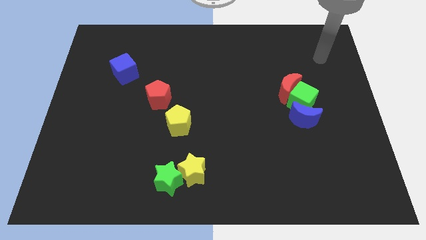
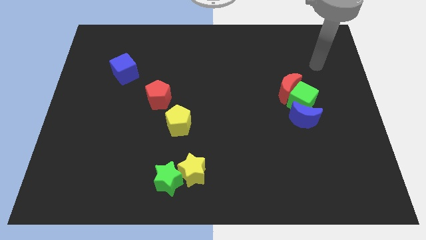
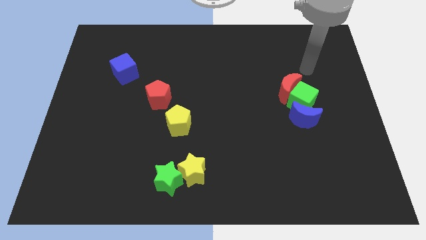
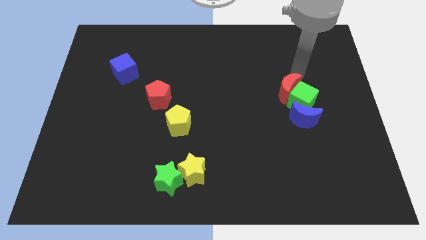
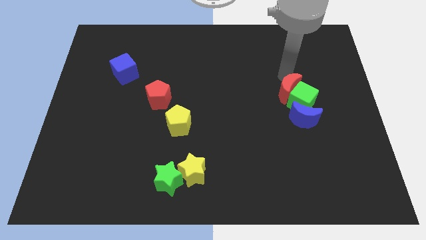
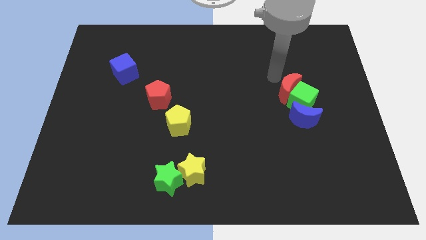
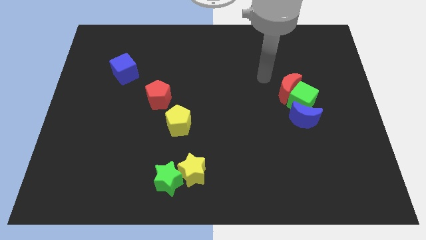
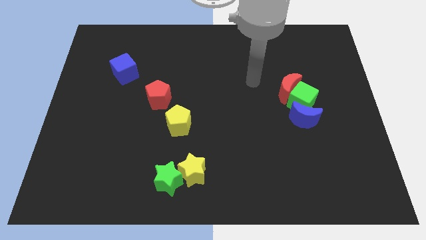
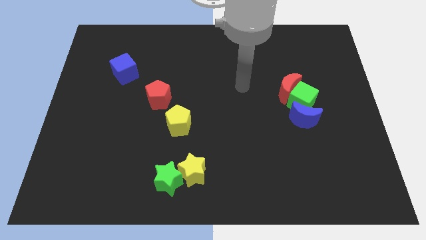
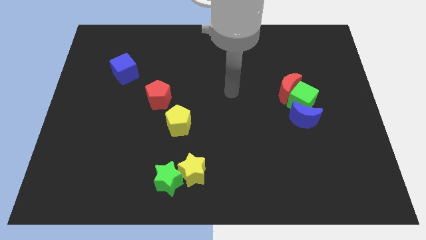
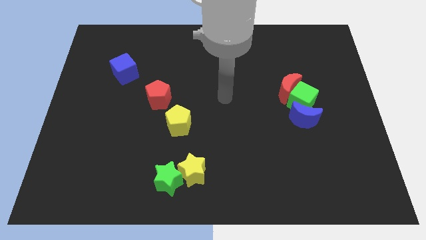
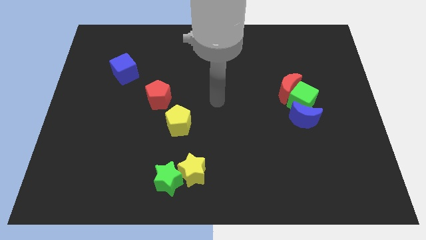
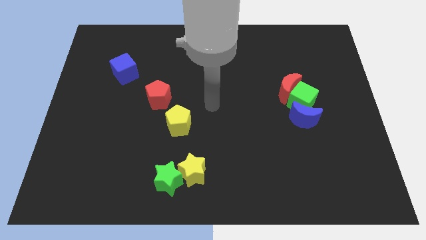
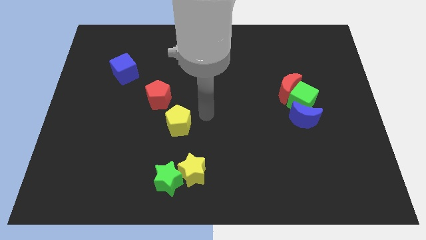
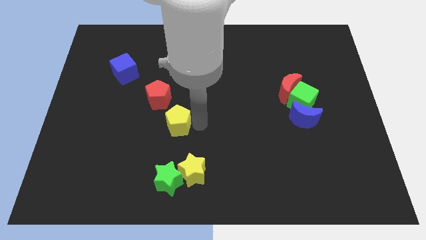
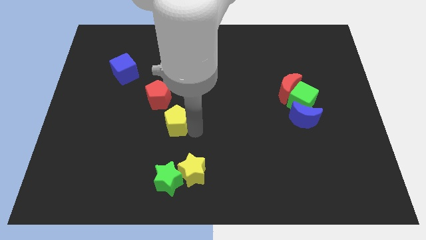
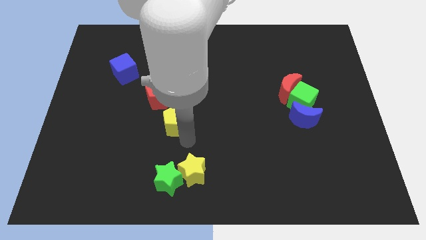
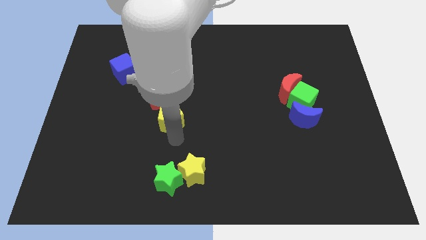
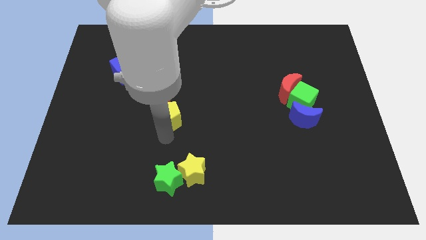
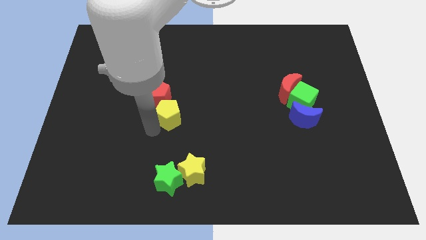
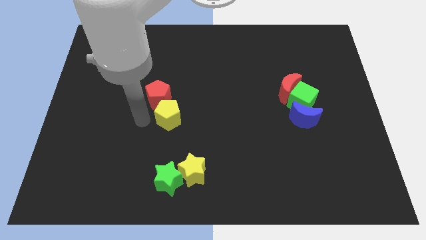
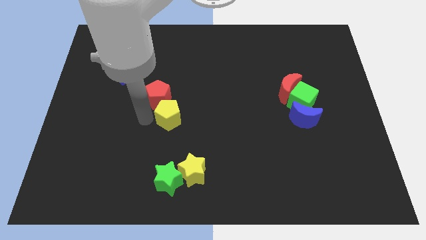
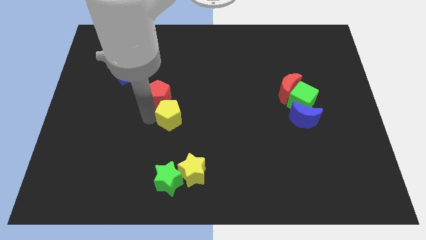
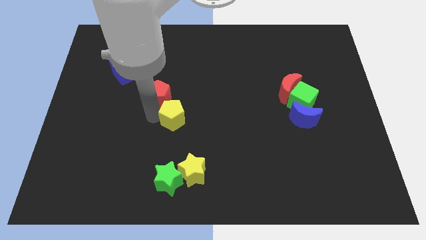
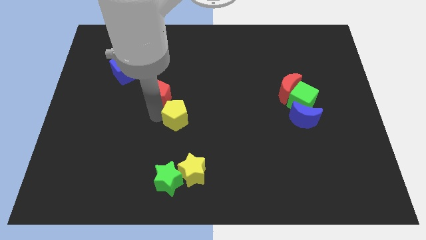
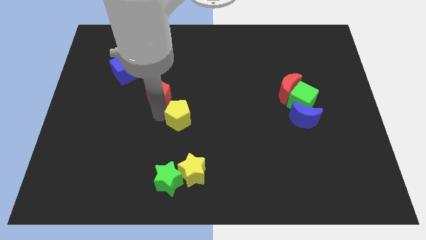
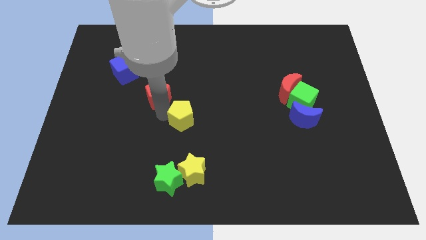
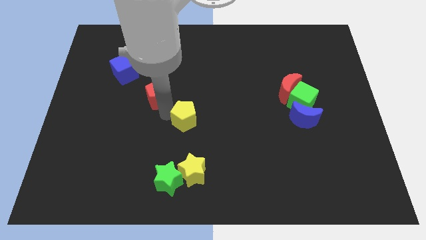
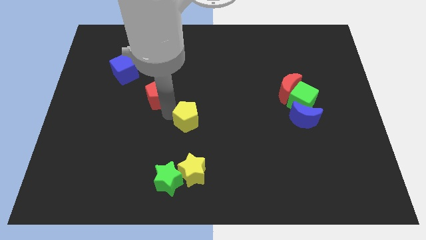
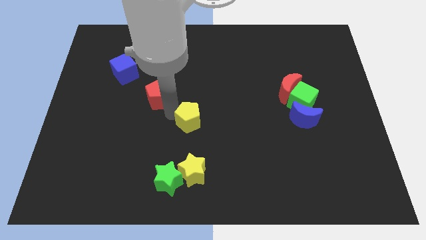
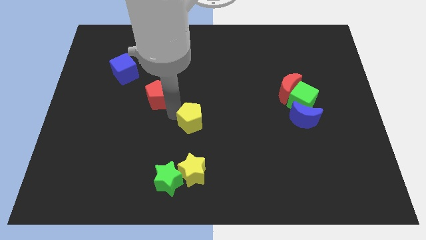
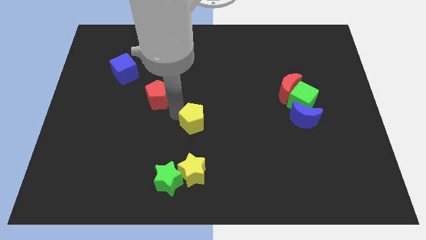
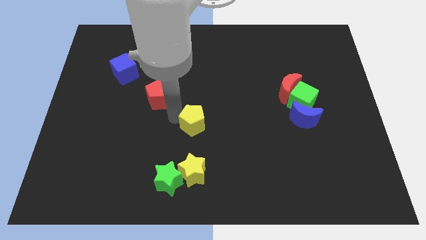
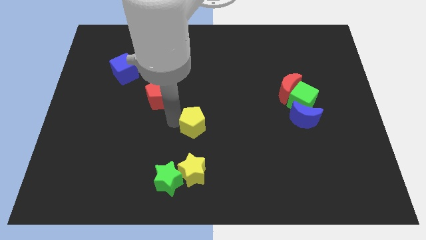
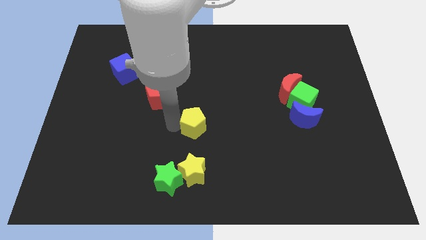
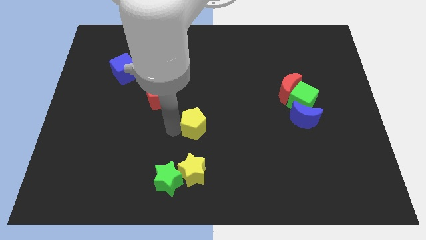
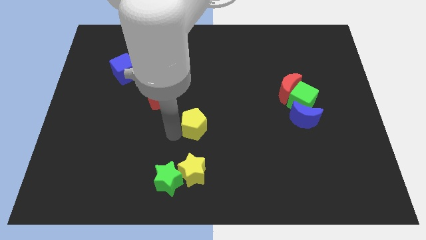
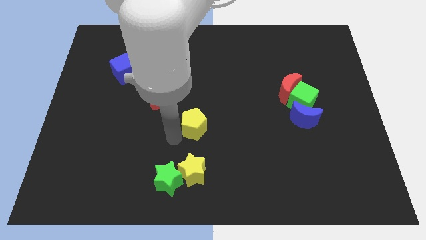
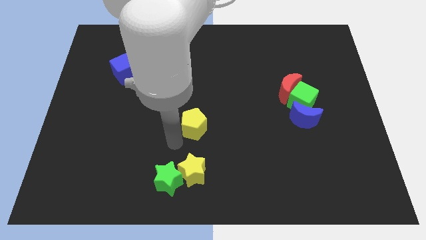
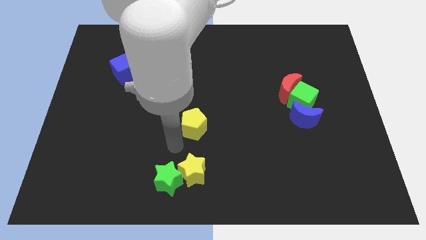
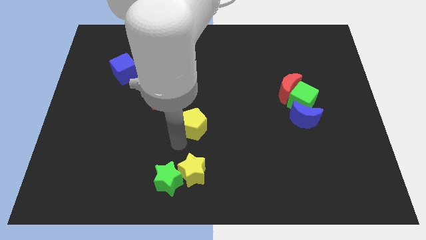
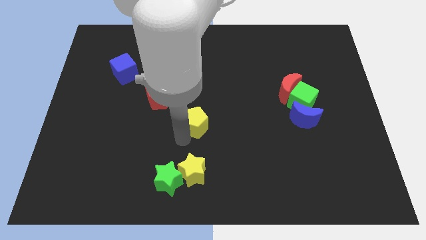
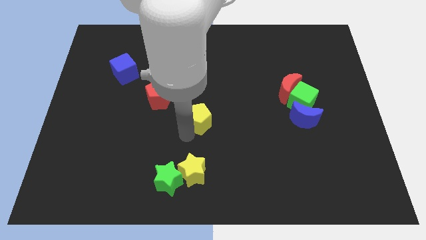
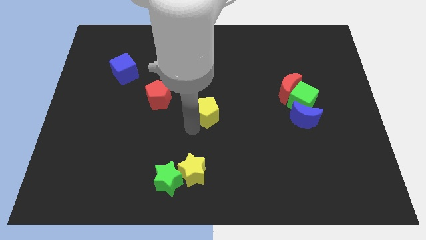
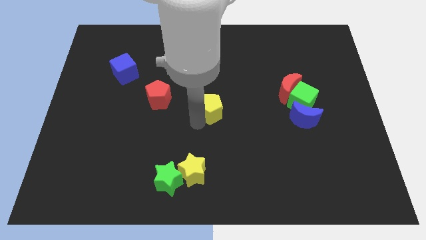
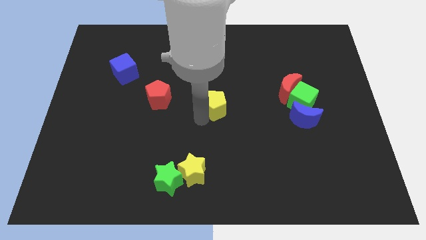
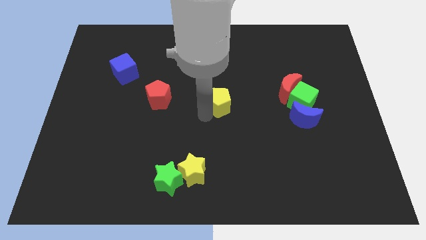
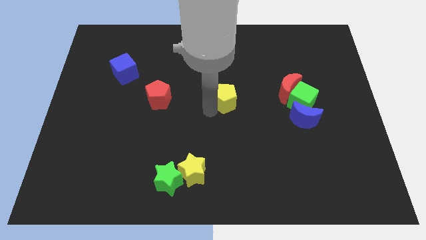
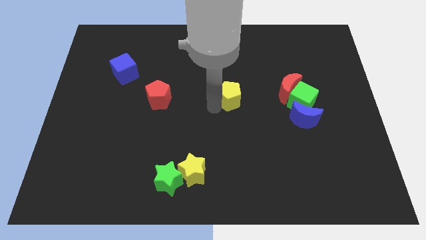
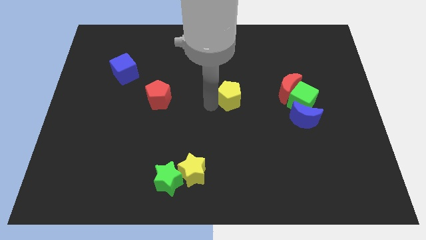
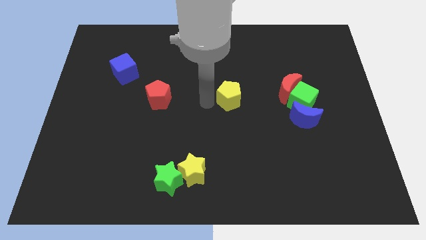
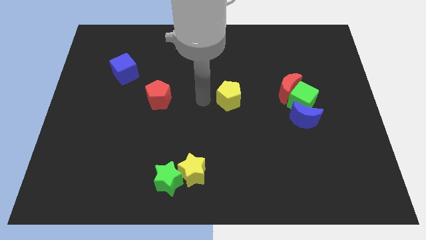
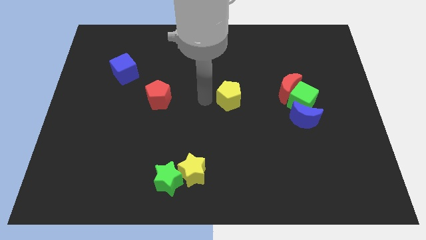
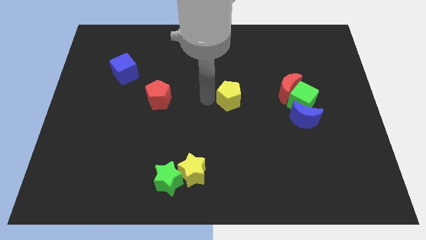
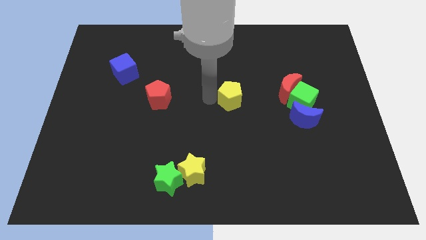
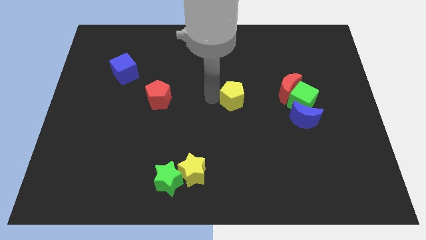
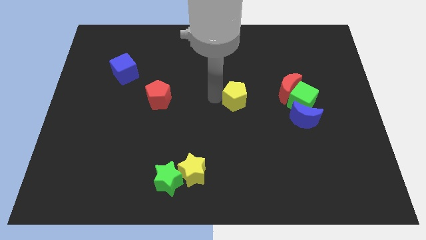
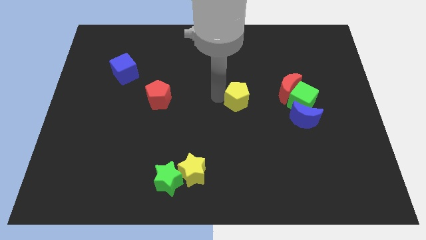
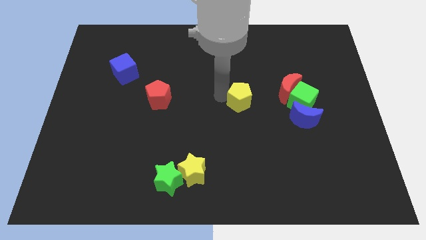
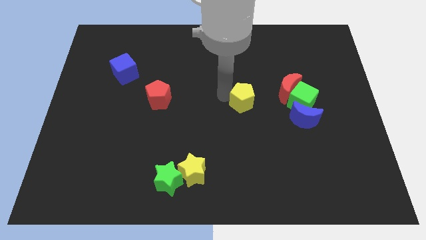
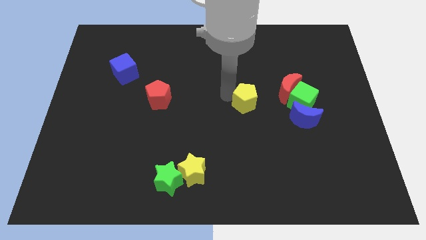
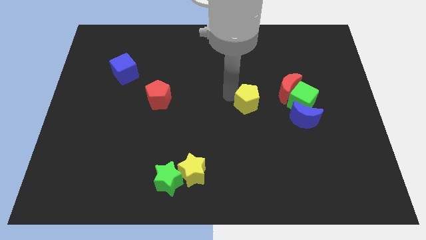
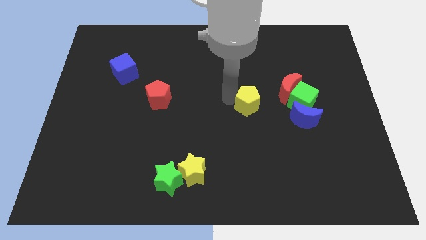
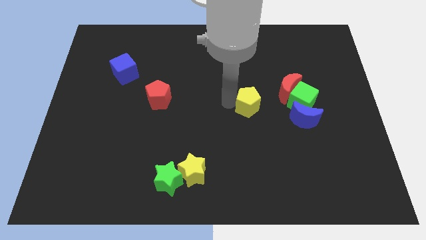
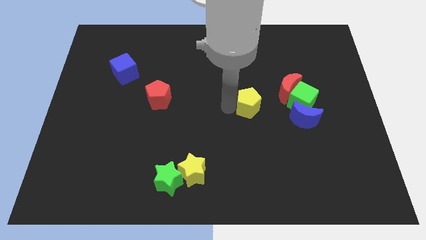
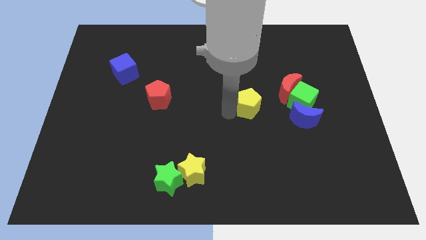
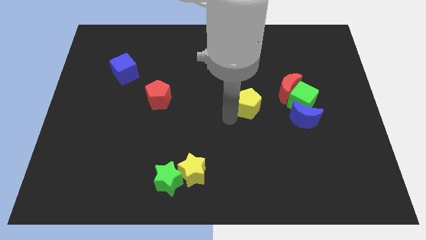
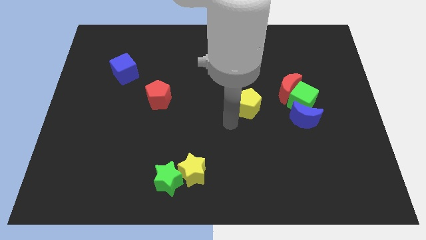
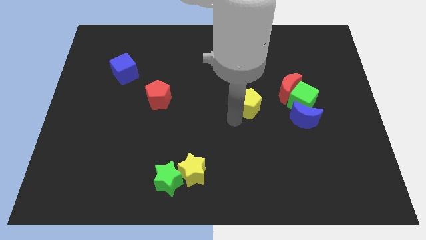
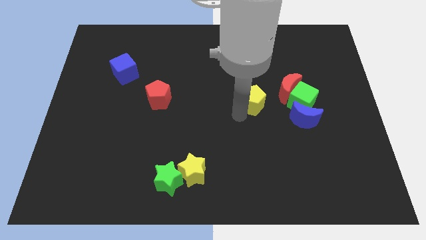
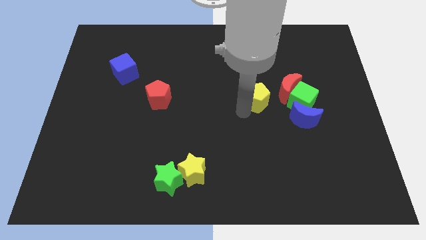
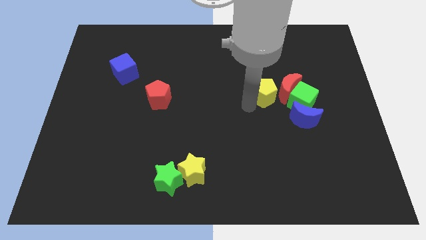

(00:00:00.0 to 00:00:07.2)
slide the yellow pentagon towards the red moon
